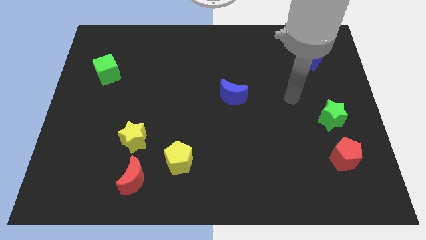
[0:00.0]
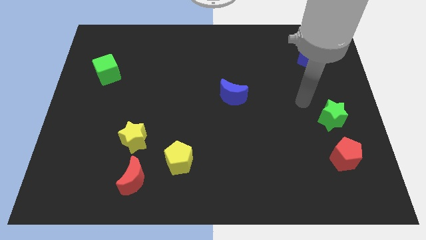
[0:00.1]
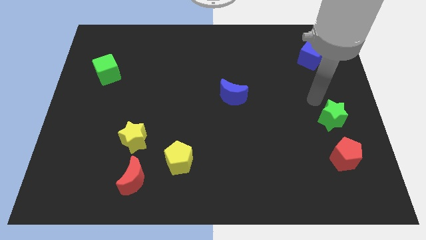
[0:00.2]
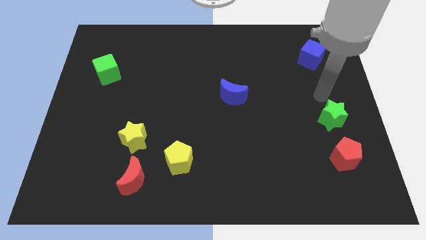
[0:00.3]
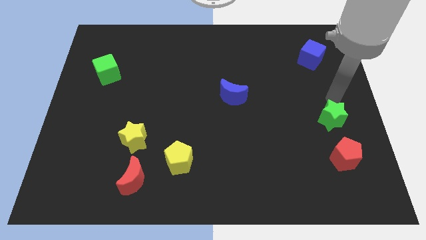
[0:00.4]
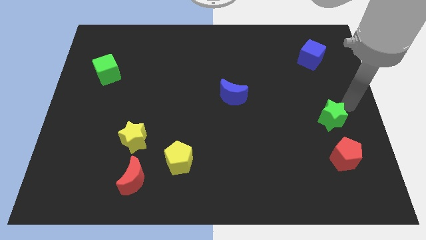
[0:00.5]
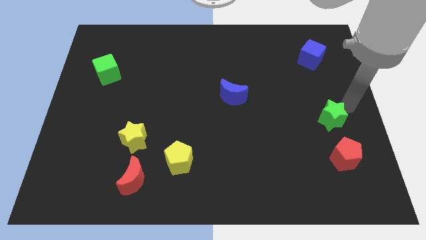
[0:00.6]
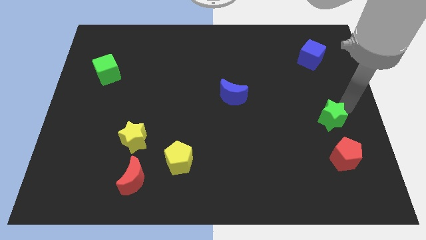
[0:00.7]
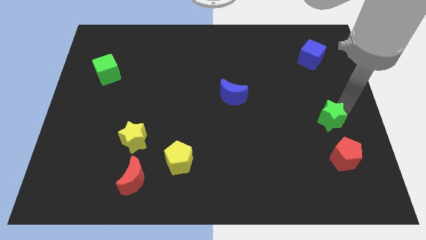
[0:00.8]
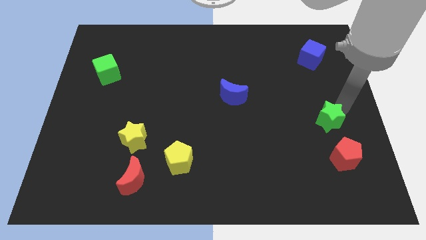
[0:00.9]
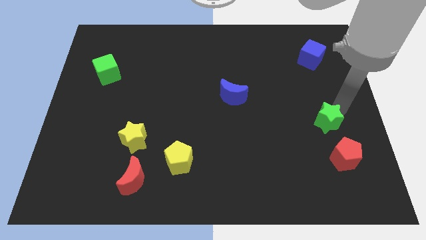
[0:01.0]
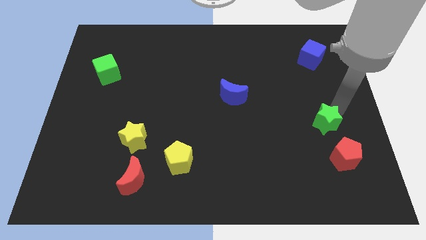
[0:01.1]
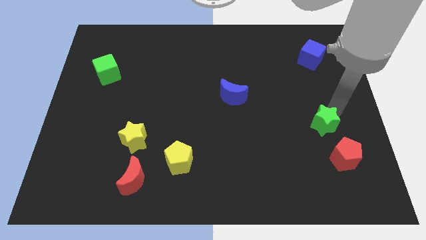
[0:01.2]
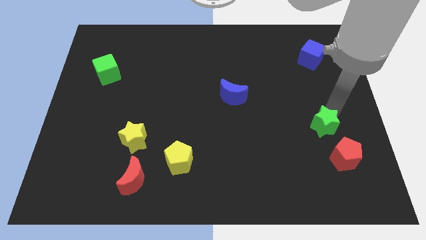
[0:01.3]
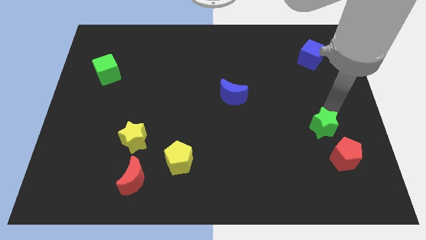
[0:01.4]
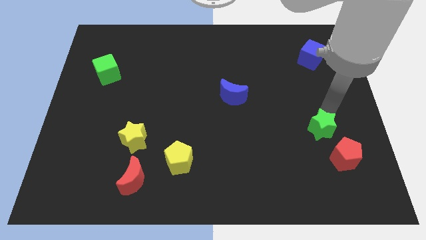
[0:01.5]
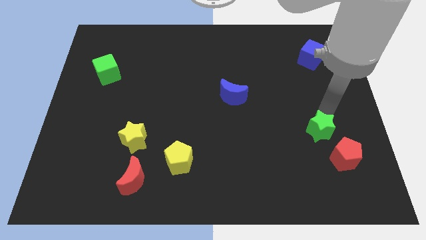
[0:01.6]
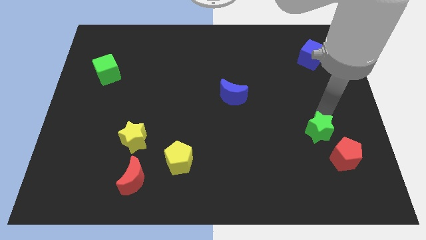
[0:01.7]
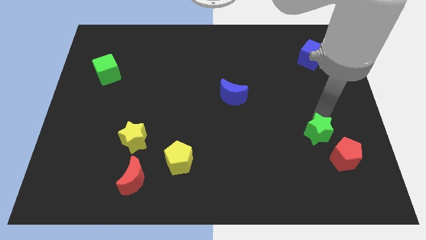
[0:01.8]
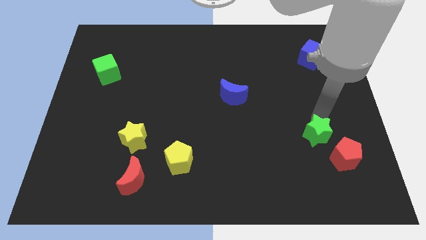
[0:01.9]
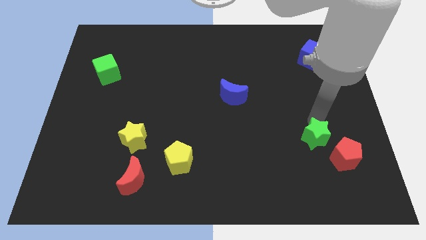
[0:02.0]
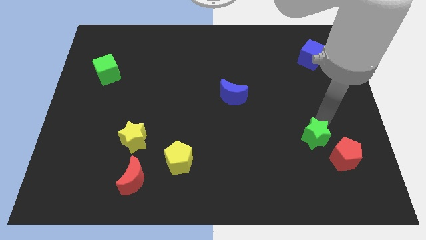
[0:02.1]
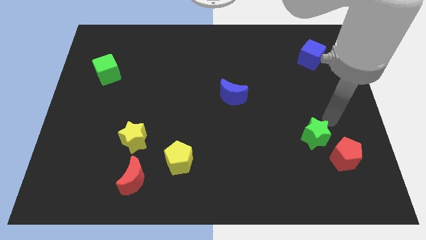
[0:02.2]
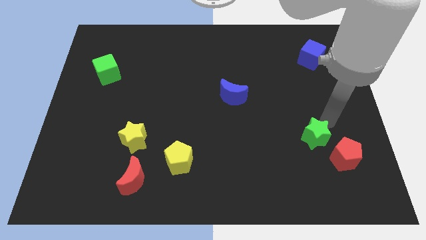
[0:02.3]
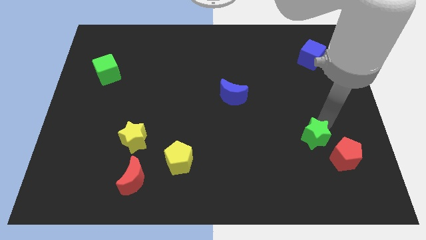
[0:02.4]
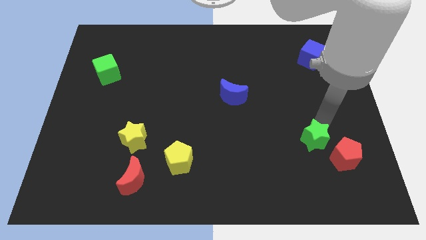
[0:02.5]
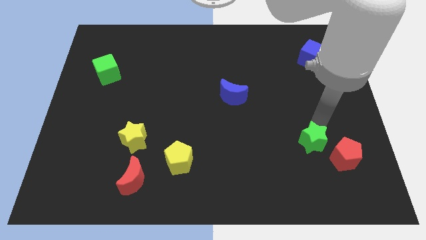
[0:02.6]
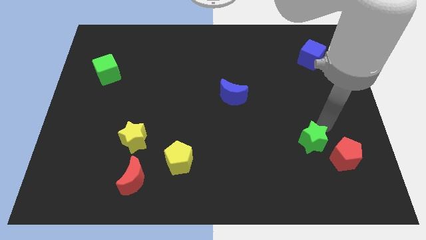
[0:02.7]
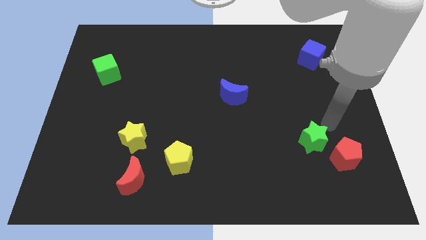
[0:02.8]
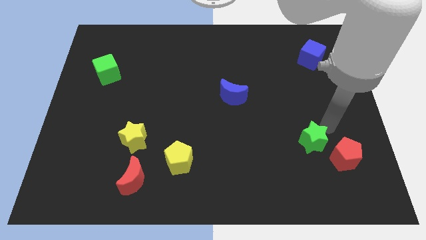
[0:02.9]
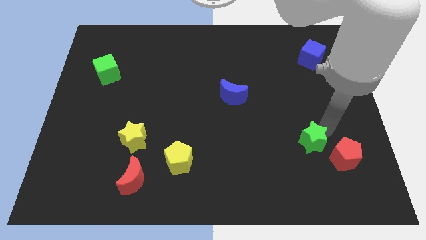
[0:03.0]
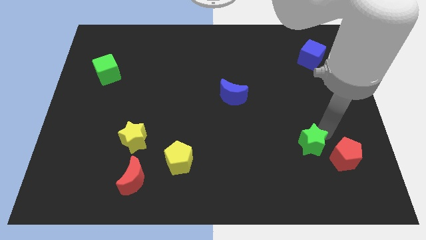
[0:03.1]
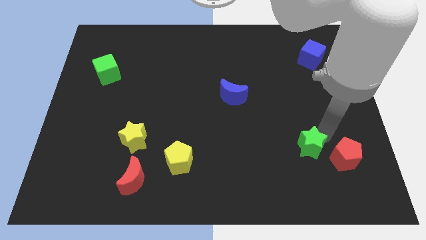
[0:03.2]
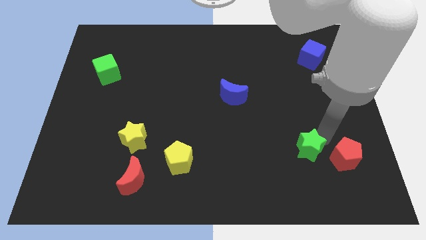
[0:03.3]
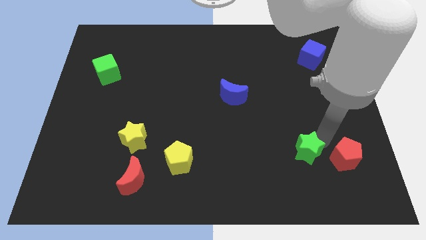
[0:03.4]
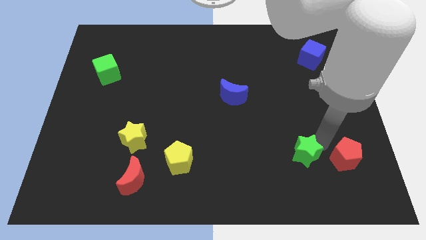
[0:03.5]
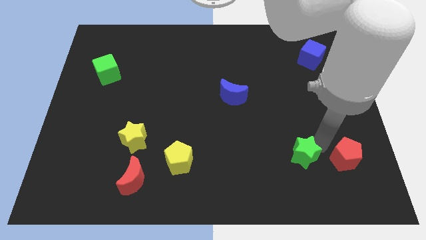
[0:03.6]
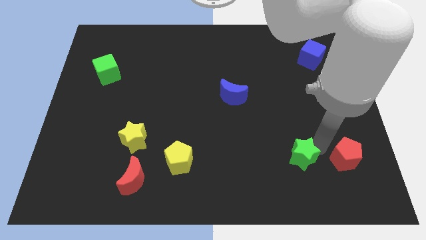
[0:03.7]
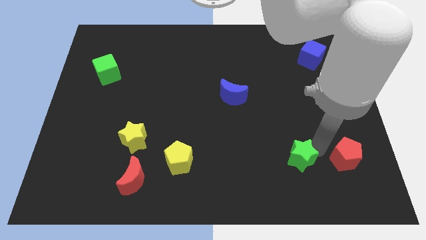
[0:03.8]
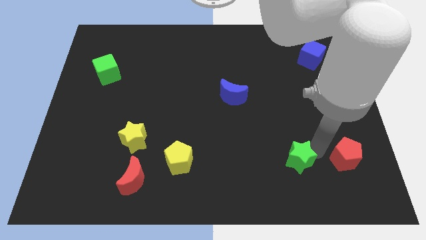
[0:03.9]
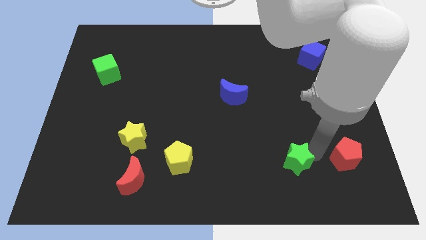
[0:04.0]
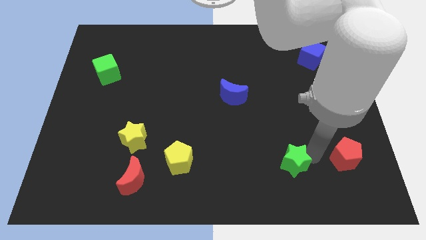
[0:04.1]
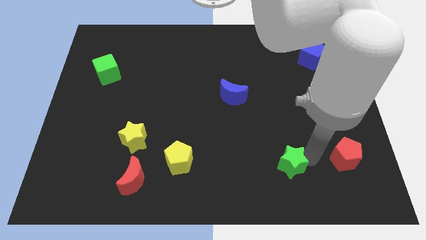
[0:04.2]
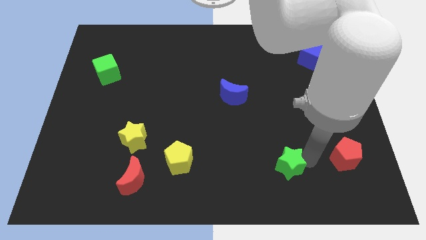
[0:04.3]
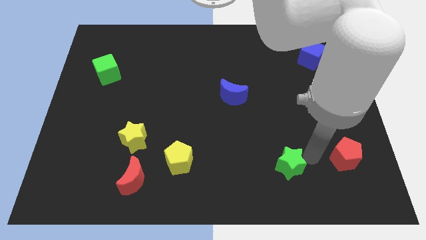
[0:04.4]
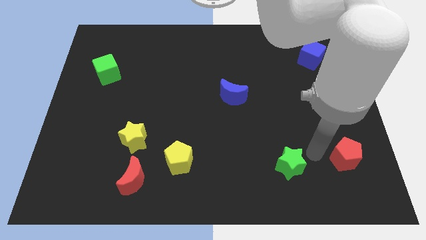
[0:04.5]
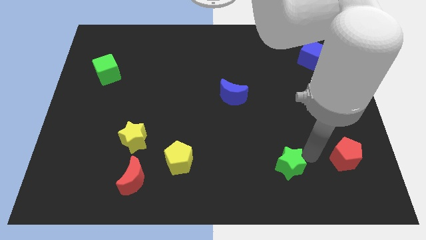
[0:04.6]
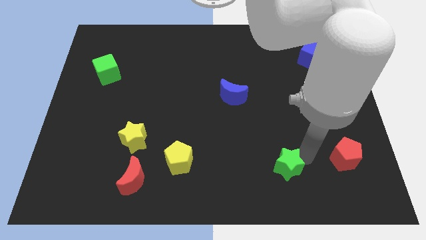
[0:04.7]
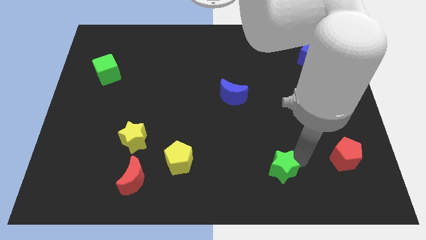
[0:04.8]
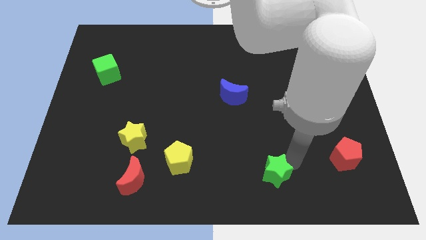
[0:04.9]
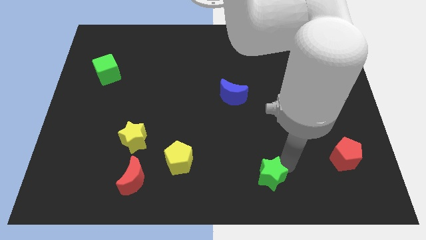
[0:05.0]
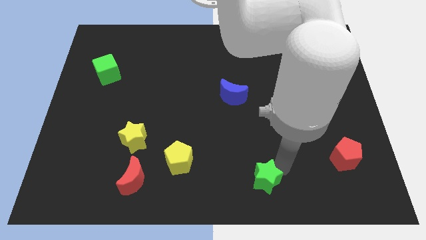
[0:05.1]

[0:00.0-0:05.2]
move the green star to the bottom

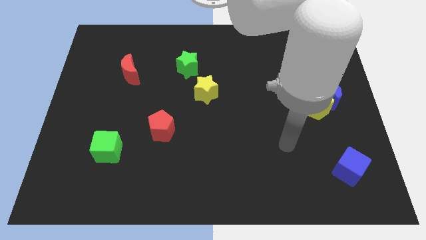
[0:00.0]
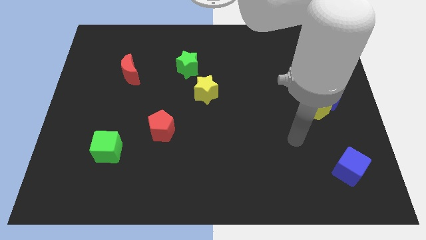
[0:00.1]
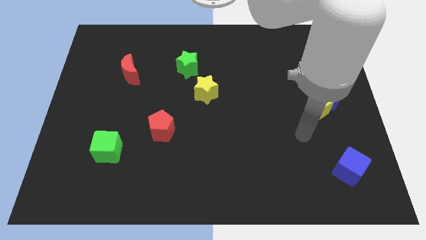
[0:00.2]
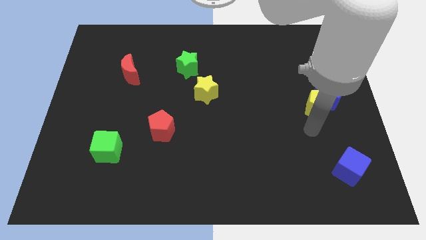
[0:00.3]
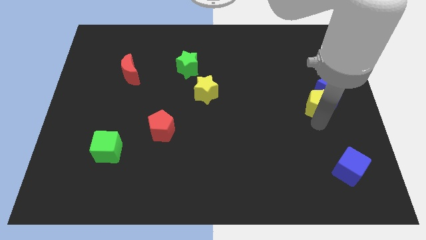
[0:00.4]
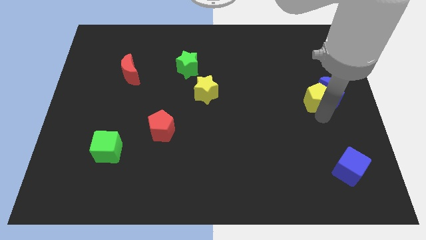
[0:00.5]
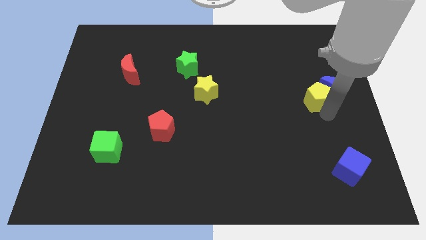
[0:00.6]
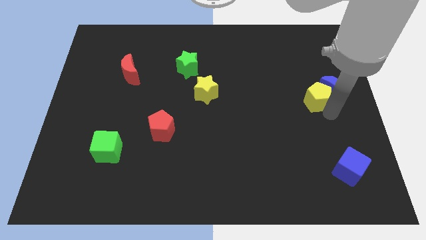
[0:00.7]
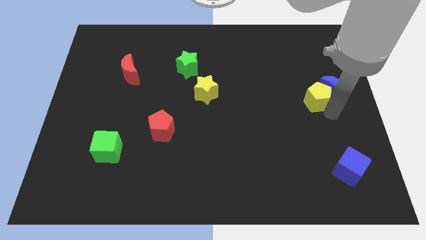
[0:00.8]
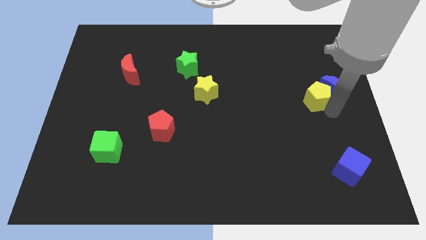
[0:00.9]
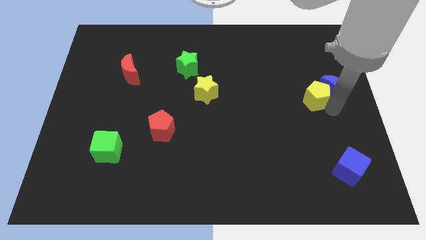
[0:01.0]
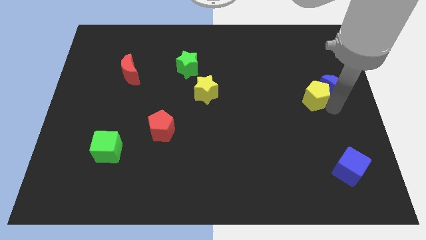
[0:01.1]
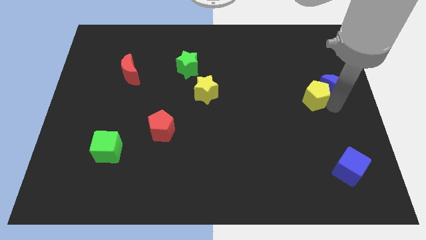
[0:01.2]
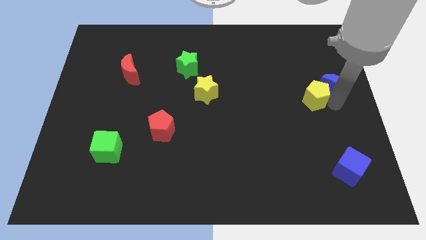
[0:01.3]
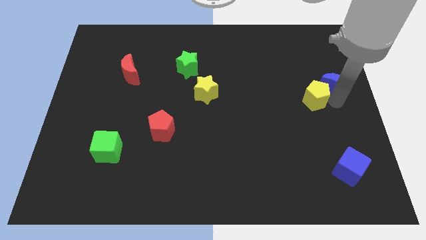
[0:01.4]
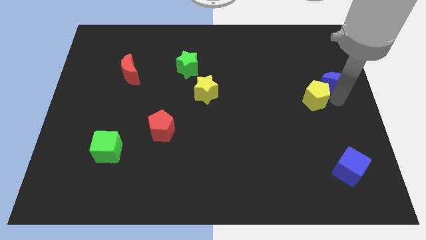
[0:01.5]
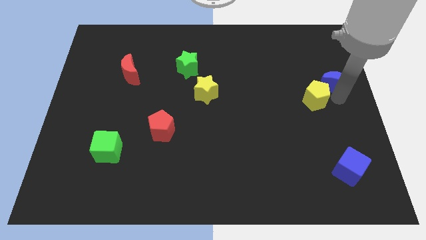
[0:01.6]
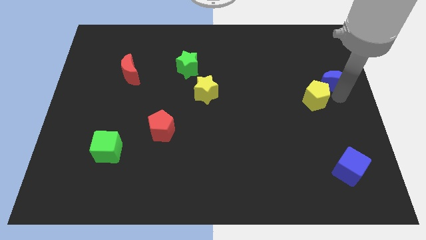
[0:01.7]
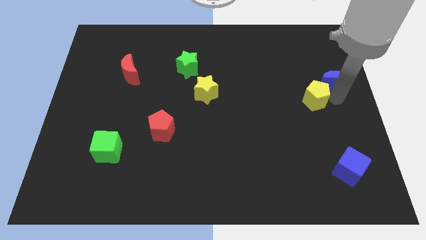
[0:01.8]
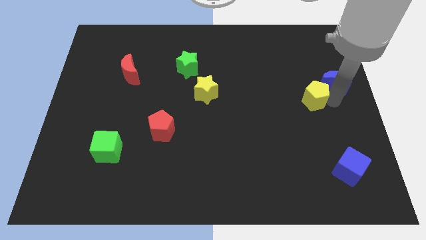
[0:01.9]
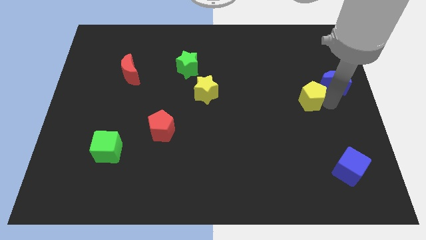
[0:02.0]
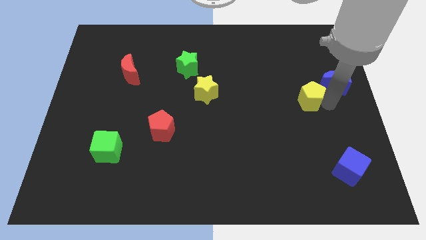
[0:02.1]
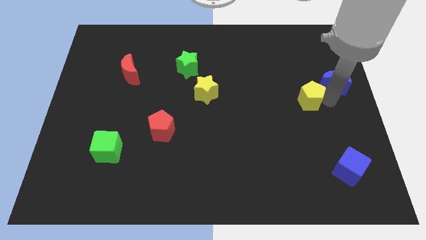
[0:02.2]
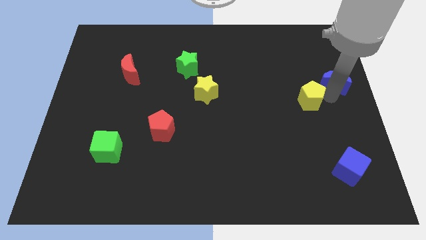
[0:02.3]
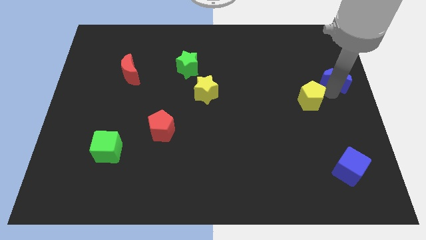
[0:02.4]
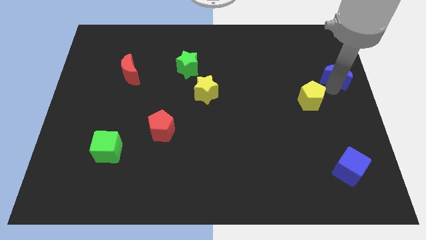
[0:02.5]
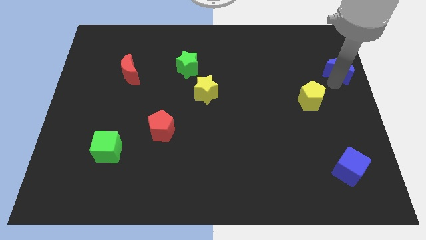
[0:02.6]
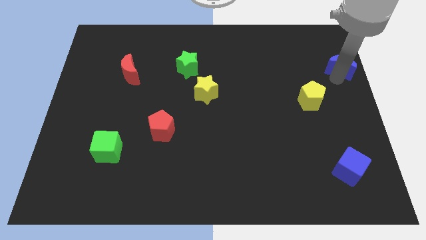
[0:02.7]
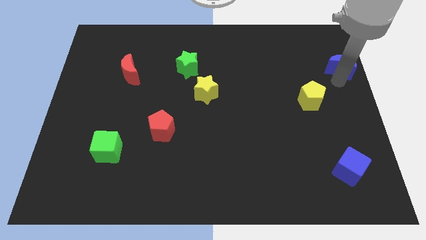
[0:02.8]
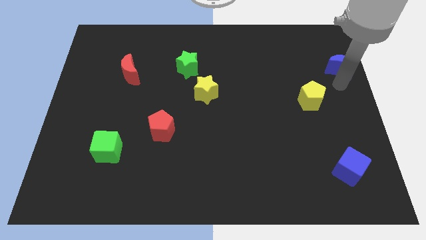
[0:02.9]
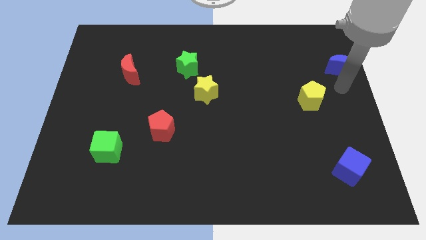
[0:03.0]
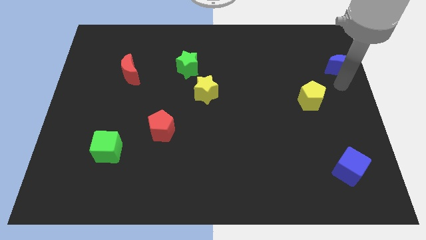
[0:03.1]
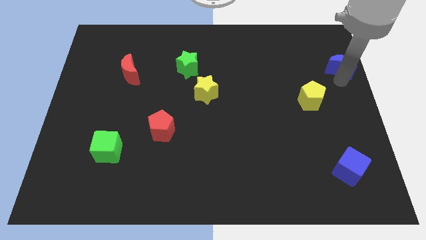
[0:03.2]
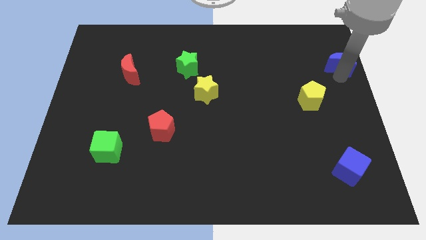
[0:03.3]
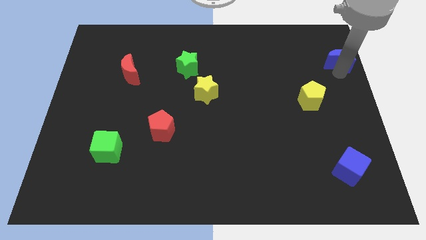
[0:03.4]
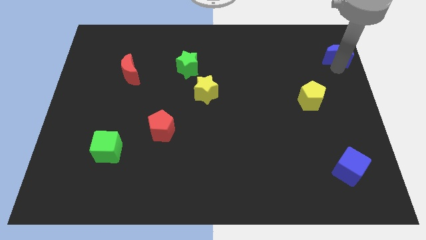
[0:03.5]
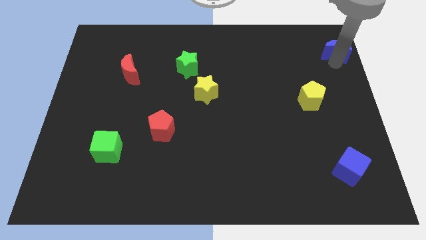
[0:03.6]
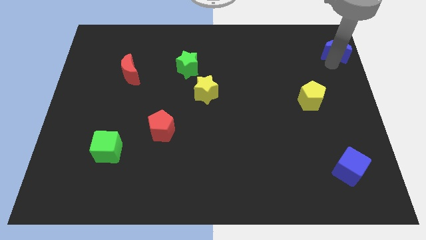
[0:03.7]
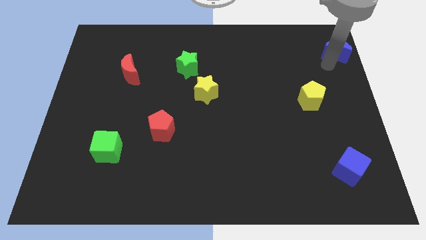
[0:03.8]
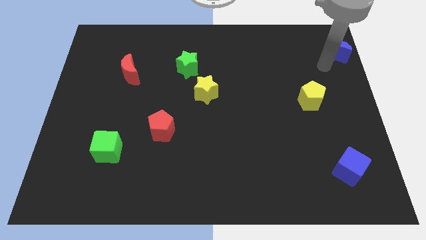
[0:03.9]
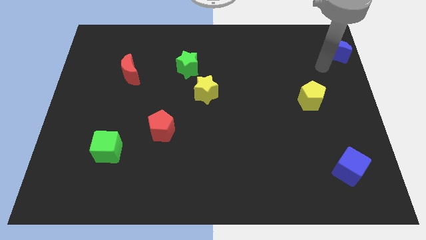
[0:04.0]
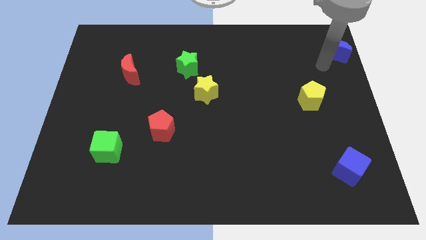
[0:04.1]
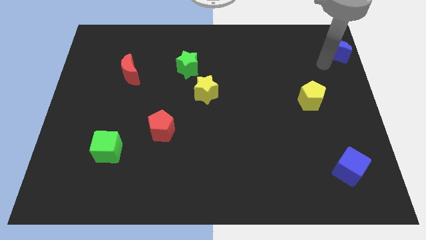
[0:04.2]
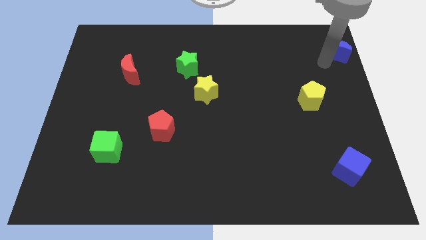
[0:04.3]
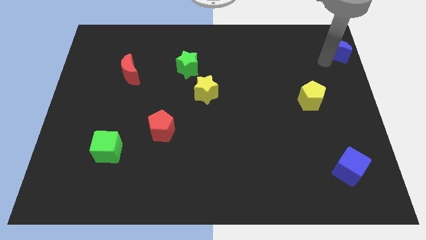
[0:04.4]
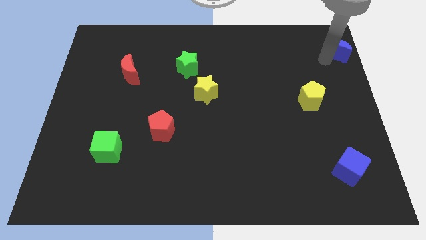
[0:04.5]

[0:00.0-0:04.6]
slide the blue moon to the top right of the board
